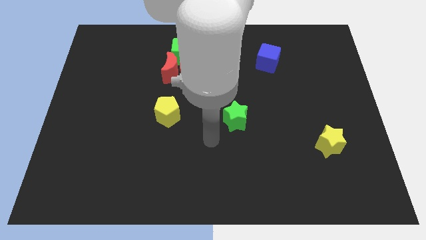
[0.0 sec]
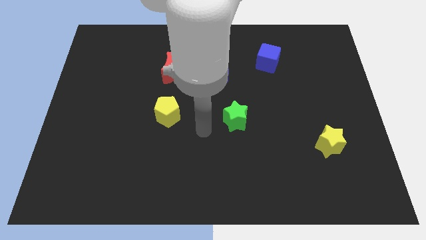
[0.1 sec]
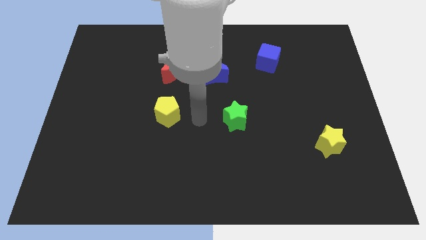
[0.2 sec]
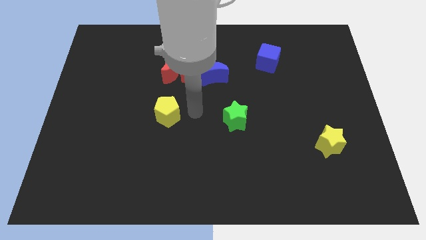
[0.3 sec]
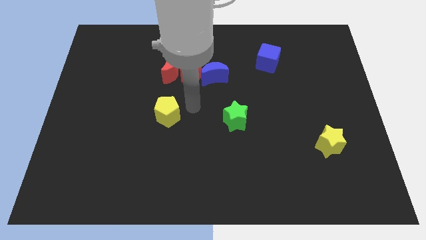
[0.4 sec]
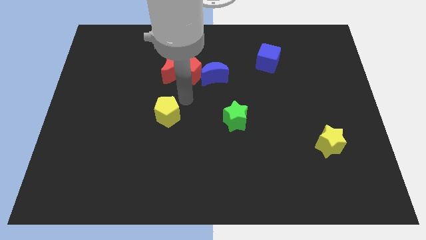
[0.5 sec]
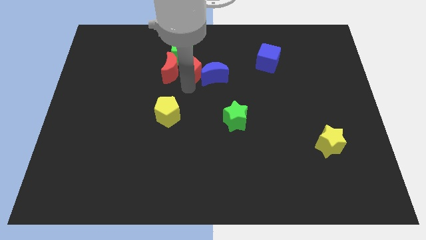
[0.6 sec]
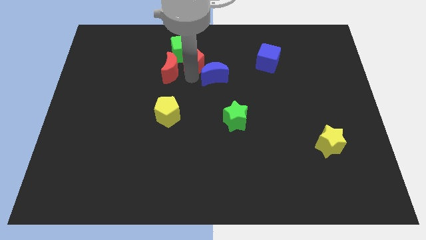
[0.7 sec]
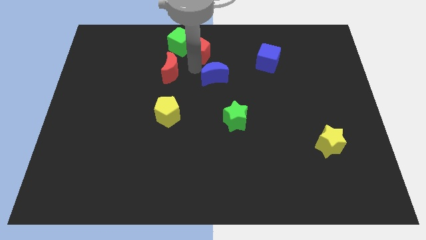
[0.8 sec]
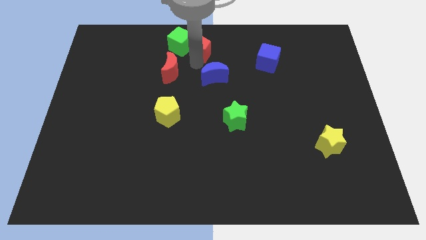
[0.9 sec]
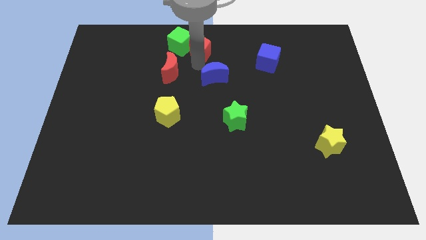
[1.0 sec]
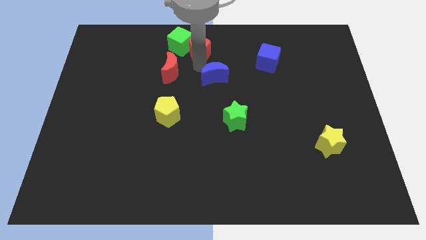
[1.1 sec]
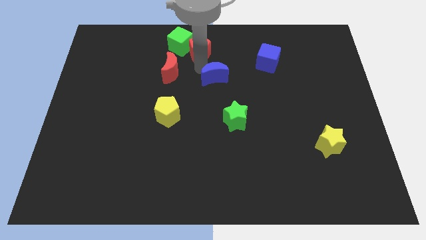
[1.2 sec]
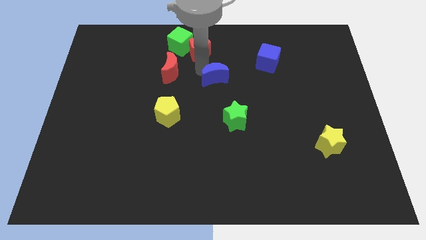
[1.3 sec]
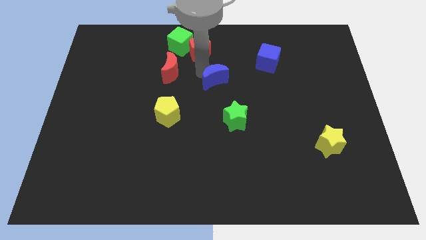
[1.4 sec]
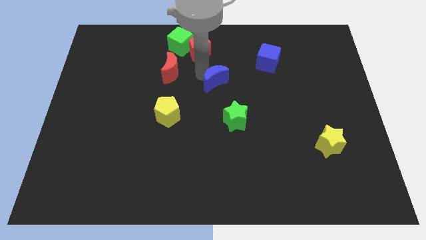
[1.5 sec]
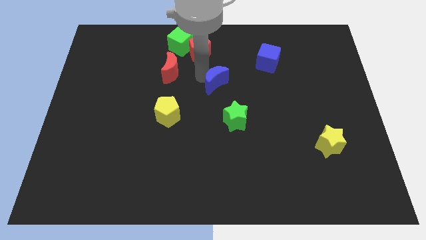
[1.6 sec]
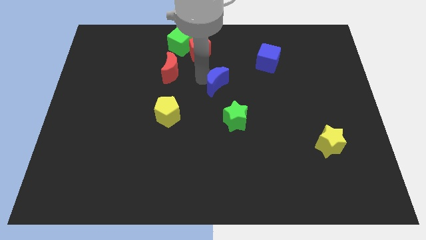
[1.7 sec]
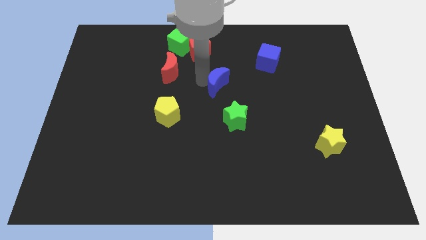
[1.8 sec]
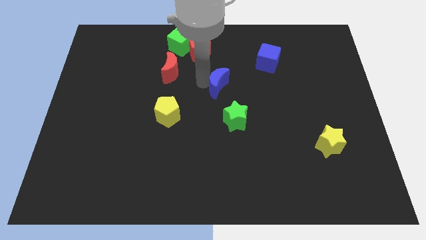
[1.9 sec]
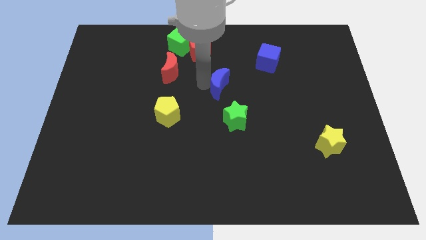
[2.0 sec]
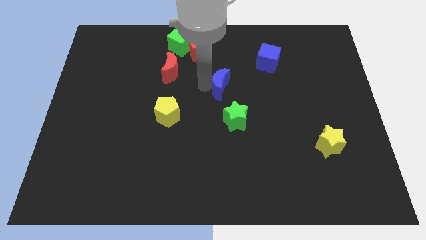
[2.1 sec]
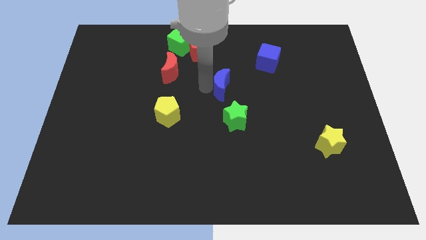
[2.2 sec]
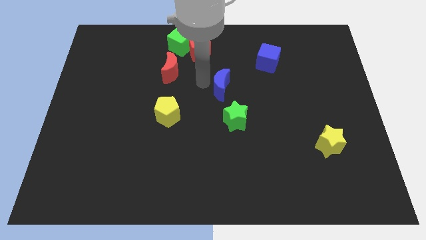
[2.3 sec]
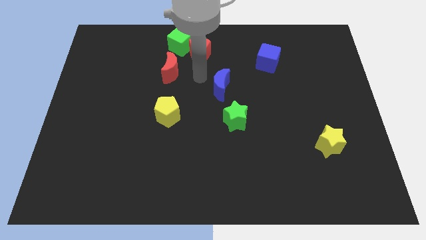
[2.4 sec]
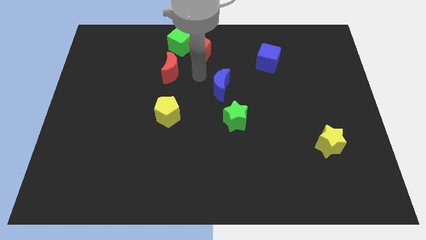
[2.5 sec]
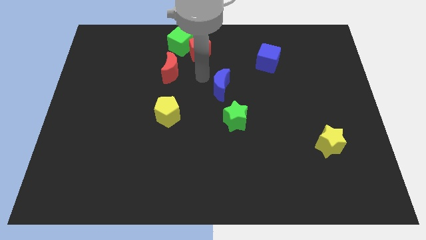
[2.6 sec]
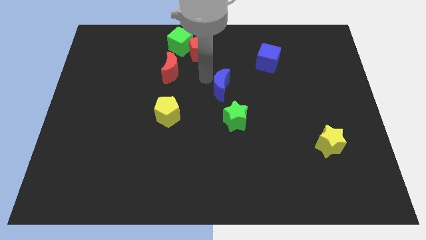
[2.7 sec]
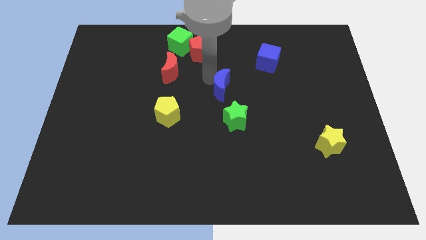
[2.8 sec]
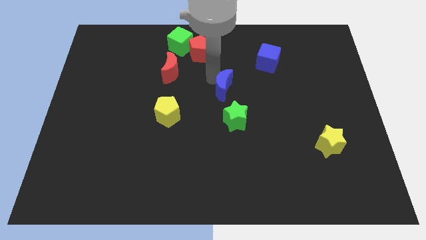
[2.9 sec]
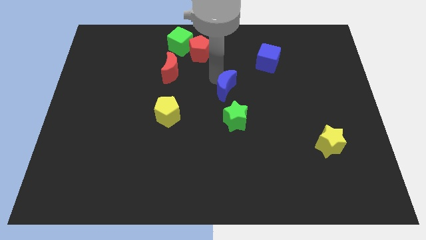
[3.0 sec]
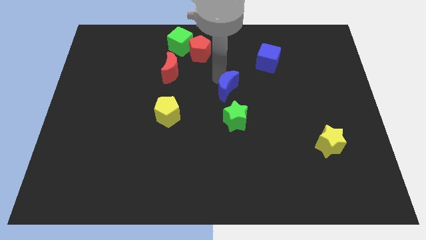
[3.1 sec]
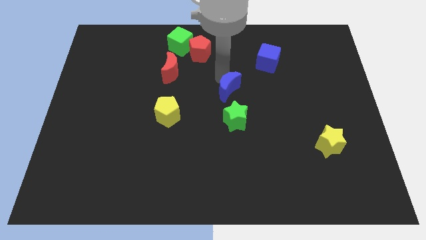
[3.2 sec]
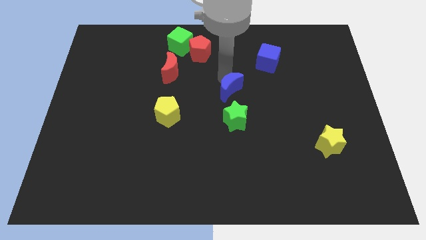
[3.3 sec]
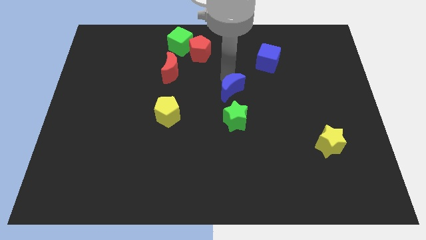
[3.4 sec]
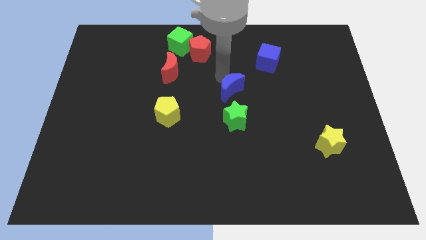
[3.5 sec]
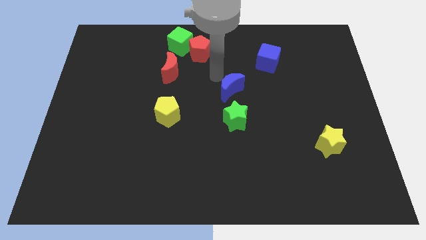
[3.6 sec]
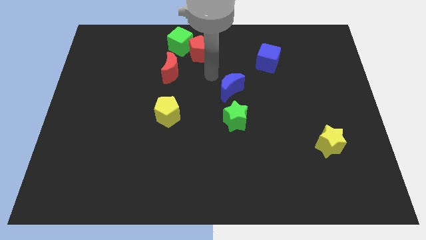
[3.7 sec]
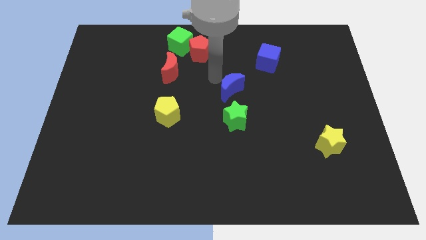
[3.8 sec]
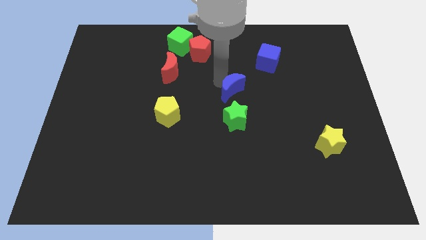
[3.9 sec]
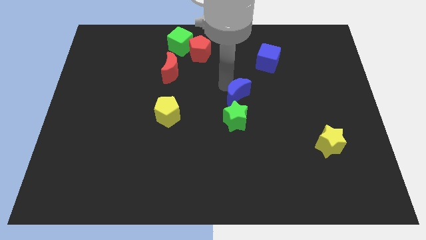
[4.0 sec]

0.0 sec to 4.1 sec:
slightly slide the blue moon down and to the right diagonally

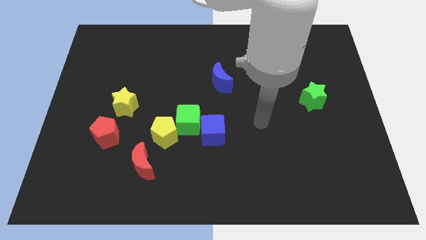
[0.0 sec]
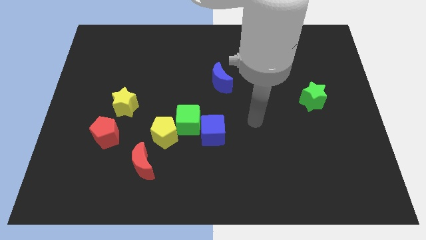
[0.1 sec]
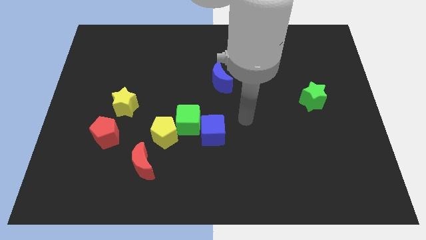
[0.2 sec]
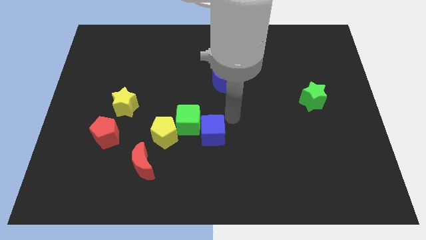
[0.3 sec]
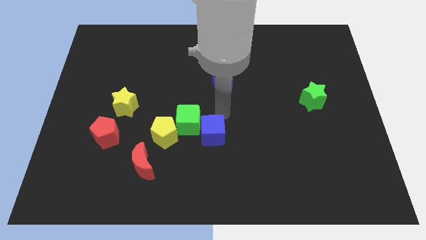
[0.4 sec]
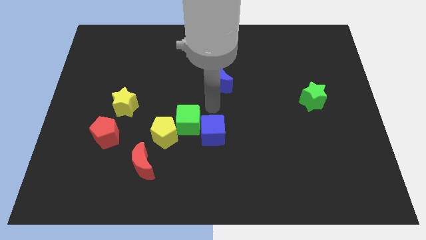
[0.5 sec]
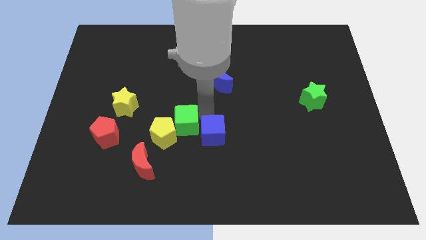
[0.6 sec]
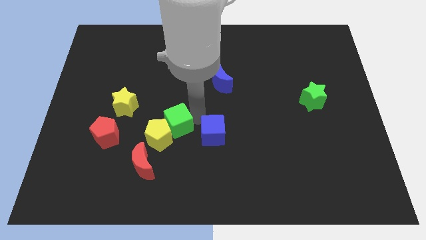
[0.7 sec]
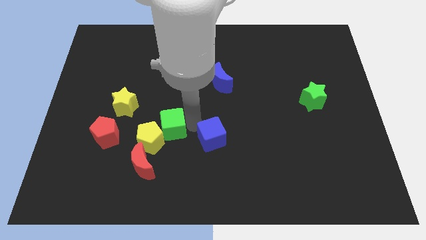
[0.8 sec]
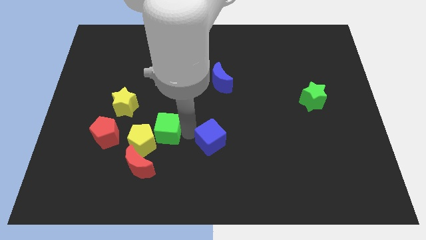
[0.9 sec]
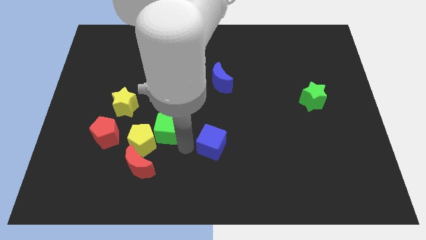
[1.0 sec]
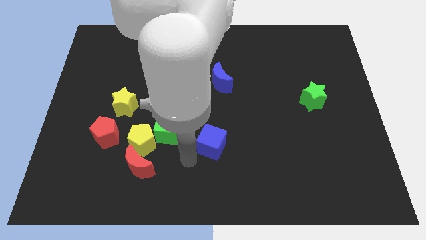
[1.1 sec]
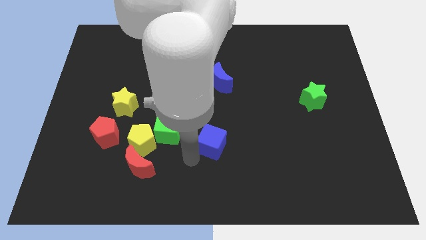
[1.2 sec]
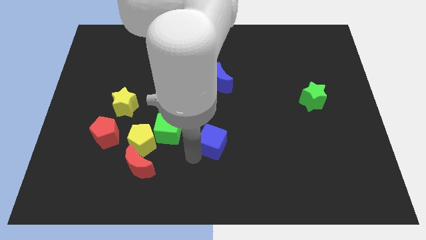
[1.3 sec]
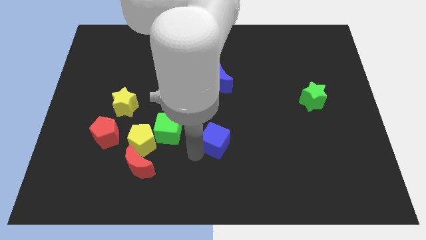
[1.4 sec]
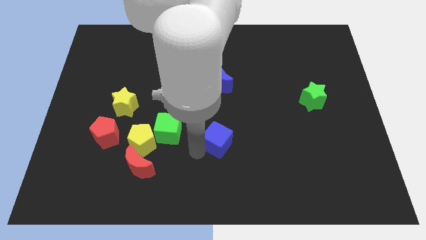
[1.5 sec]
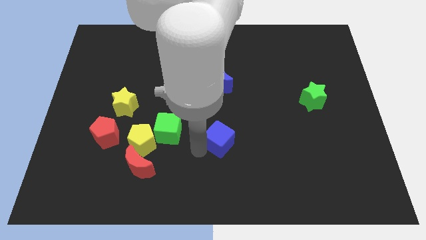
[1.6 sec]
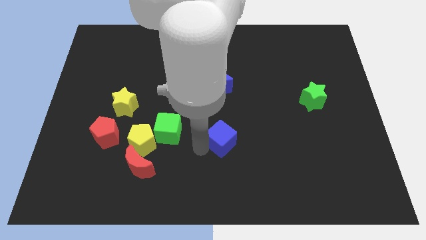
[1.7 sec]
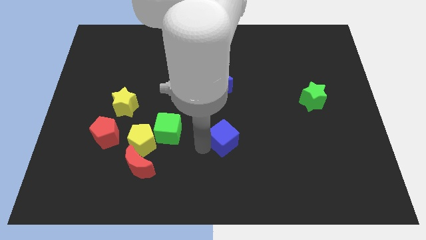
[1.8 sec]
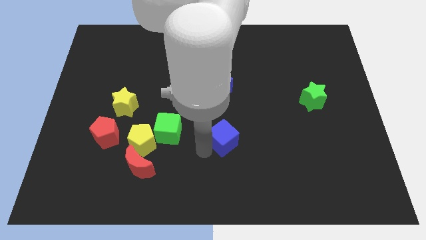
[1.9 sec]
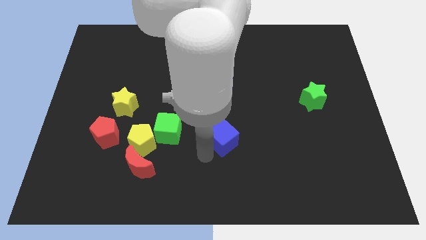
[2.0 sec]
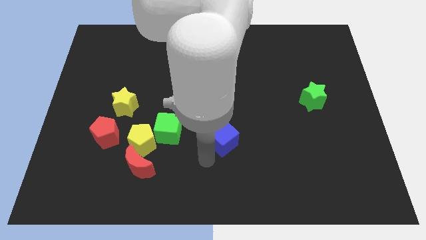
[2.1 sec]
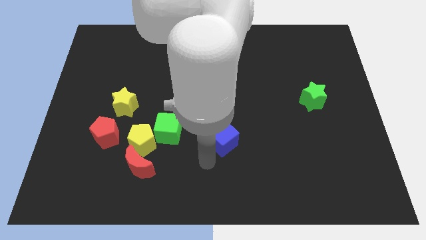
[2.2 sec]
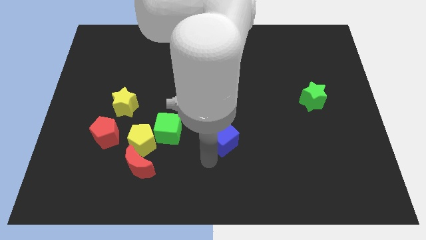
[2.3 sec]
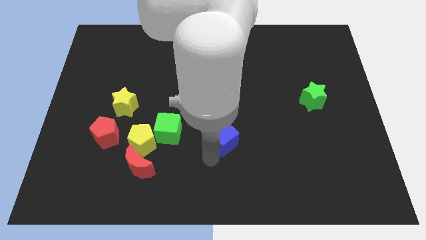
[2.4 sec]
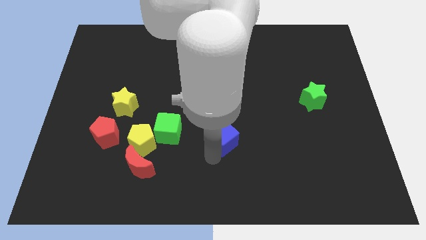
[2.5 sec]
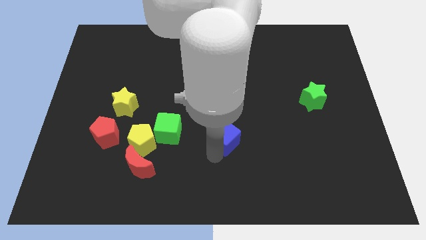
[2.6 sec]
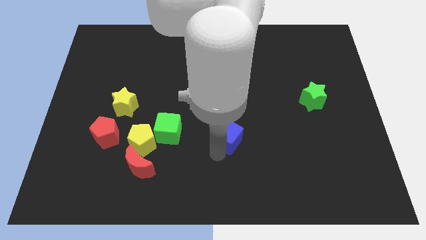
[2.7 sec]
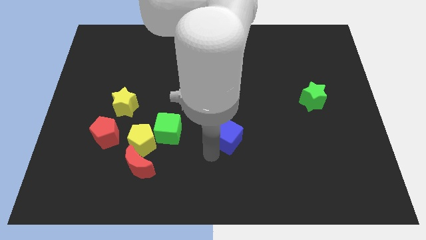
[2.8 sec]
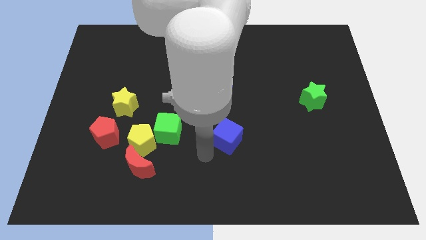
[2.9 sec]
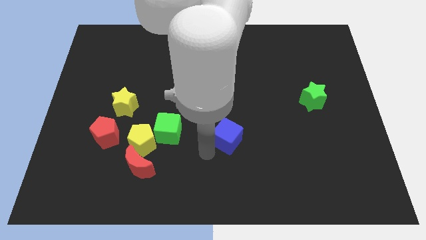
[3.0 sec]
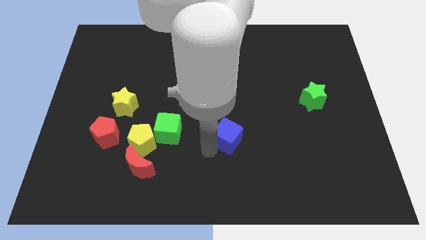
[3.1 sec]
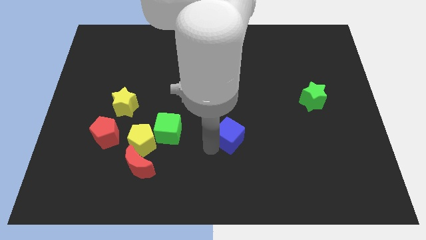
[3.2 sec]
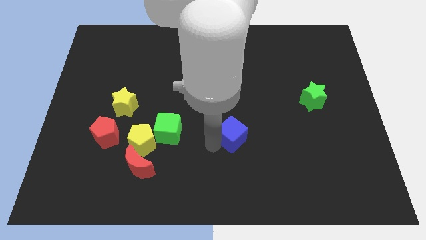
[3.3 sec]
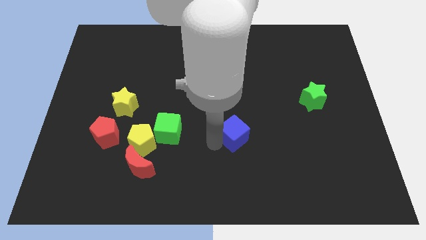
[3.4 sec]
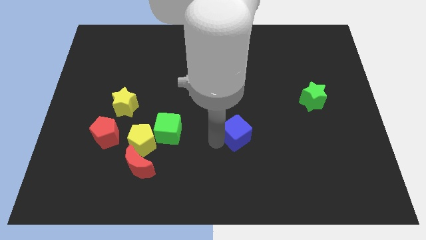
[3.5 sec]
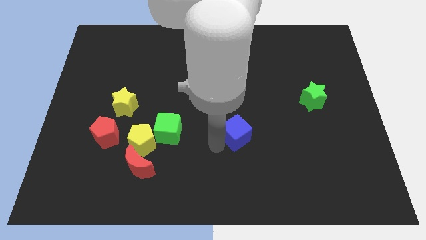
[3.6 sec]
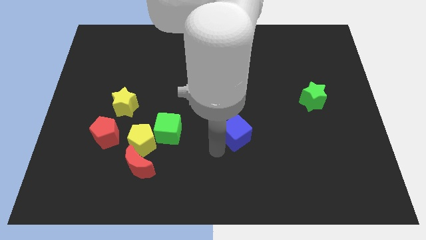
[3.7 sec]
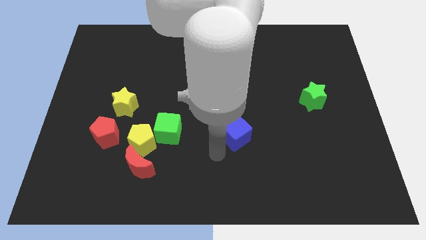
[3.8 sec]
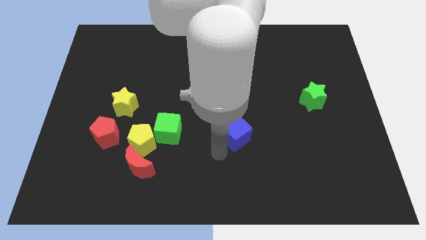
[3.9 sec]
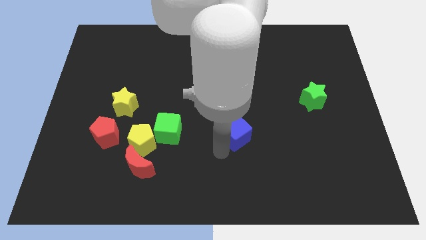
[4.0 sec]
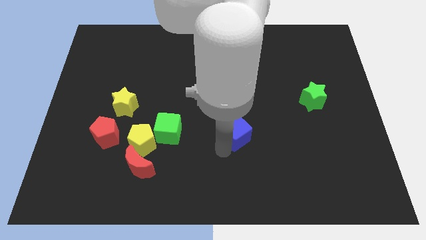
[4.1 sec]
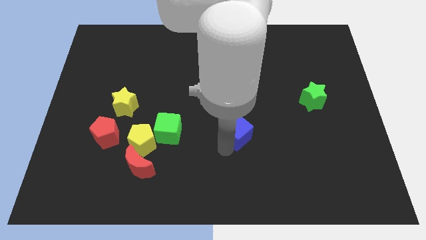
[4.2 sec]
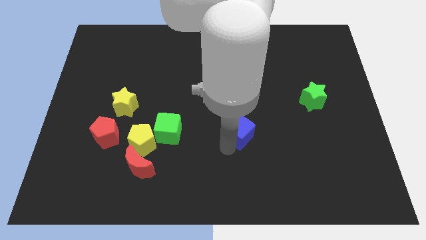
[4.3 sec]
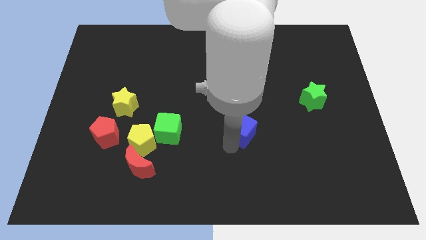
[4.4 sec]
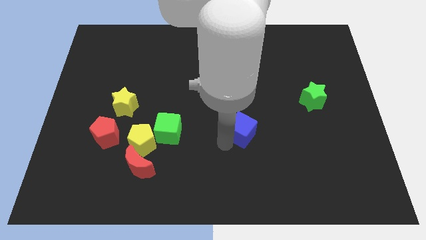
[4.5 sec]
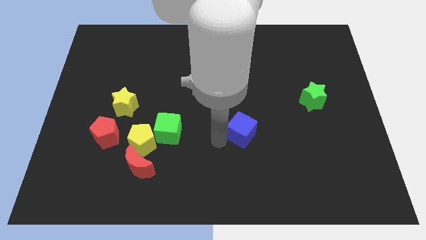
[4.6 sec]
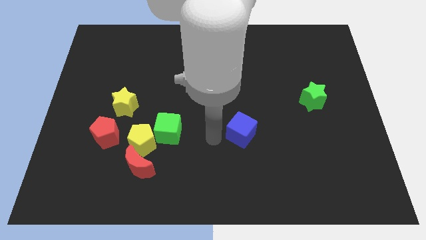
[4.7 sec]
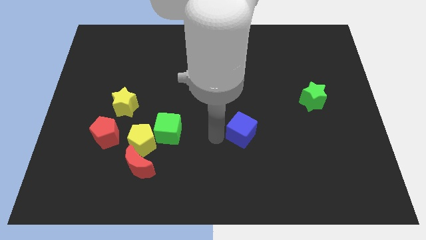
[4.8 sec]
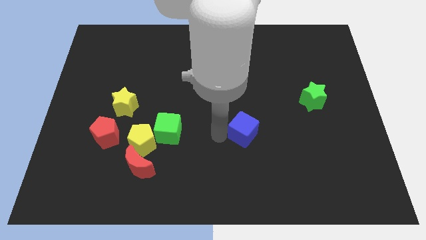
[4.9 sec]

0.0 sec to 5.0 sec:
slide the blue cube to the right a little
